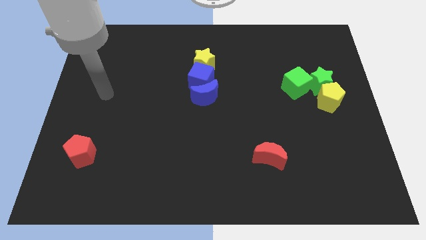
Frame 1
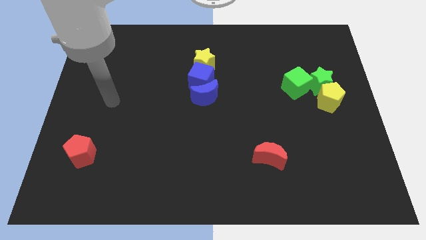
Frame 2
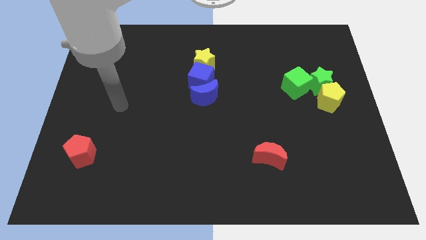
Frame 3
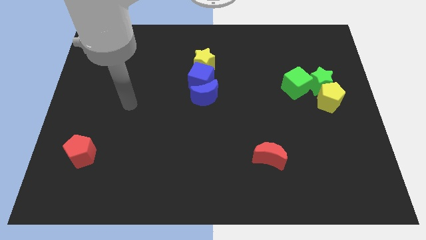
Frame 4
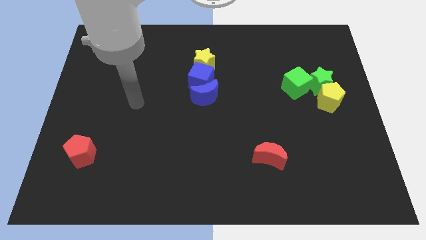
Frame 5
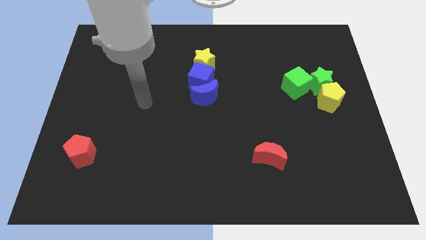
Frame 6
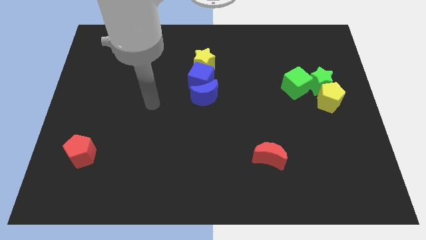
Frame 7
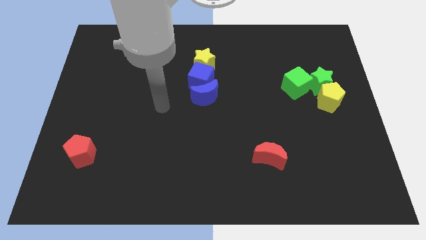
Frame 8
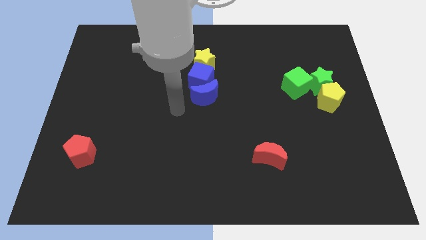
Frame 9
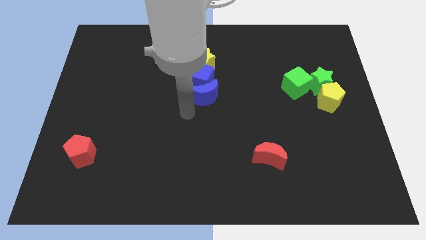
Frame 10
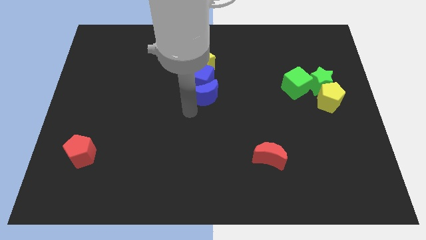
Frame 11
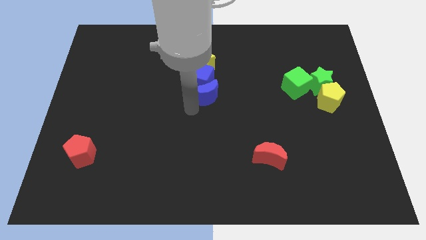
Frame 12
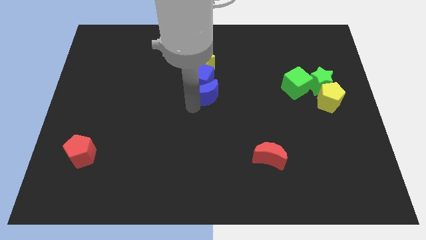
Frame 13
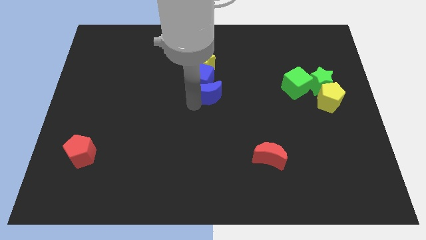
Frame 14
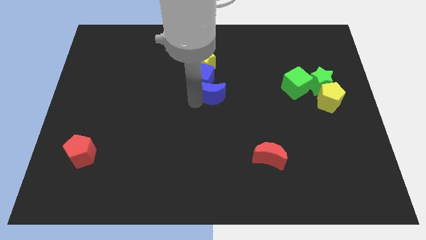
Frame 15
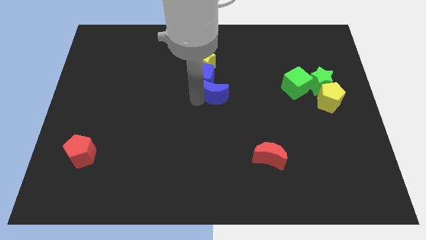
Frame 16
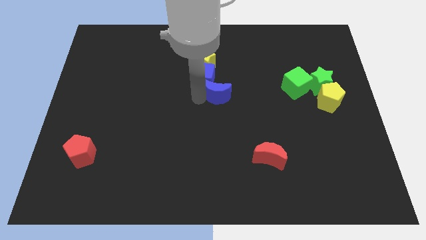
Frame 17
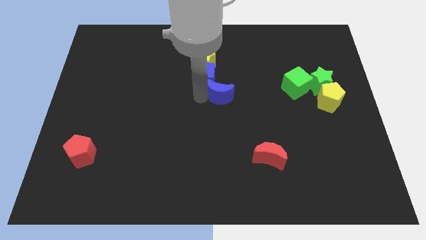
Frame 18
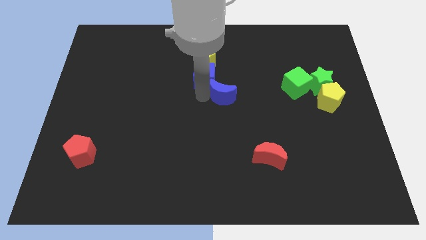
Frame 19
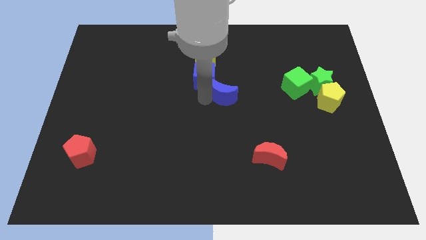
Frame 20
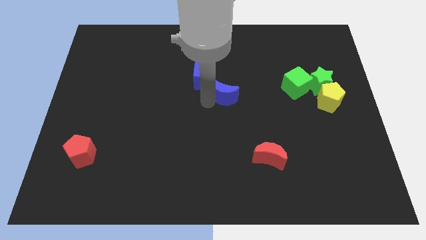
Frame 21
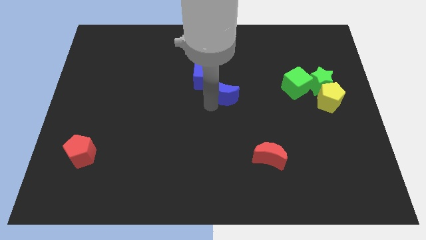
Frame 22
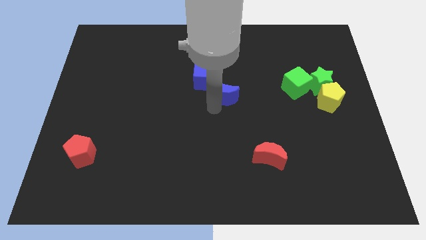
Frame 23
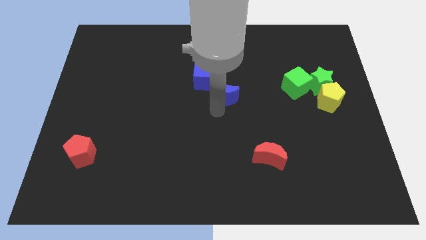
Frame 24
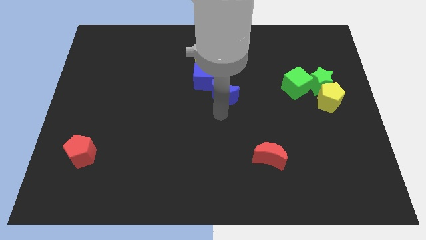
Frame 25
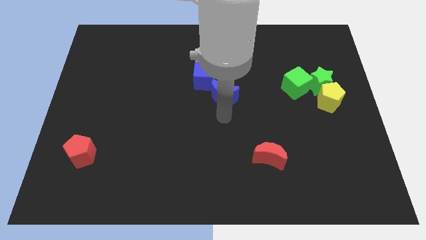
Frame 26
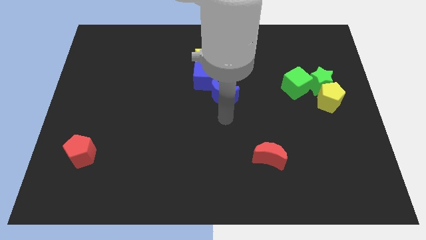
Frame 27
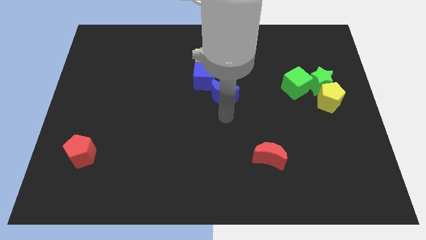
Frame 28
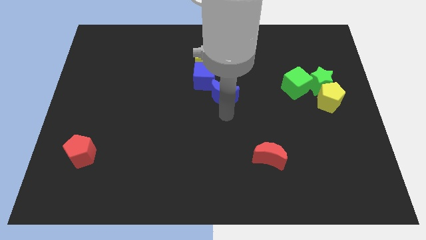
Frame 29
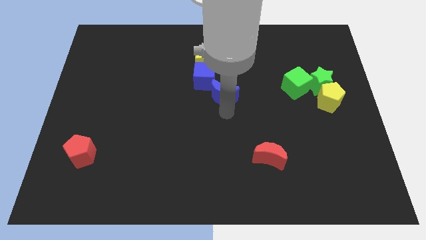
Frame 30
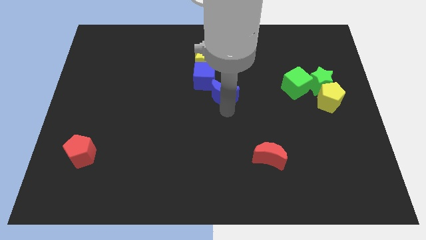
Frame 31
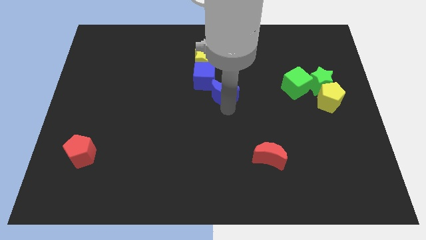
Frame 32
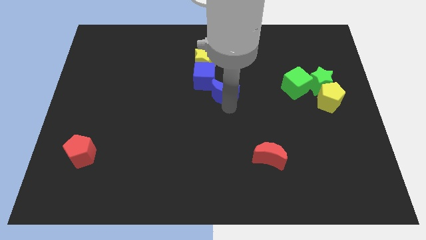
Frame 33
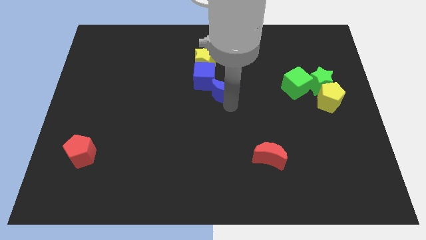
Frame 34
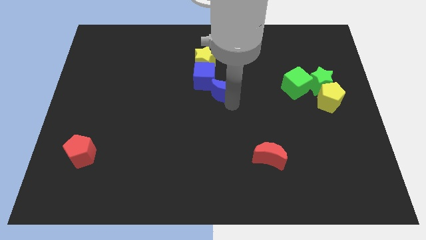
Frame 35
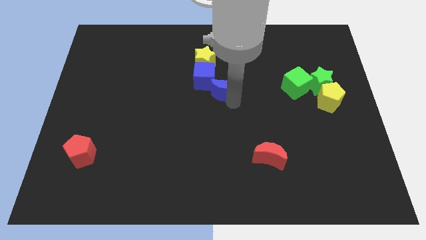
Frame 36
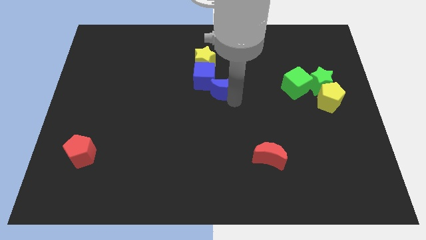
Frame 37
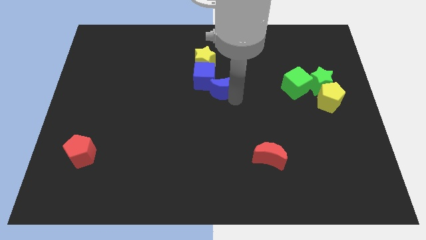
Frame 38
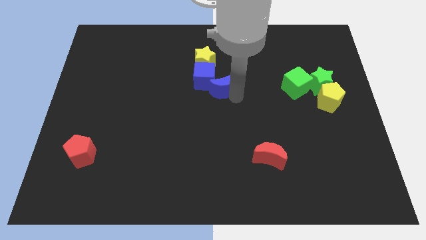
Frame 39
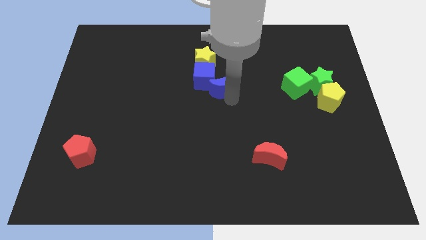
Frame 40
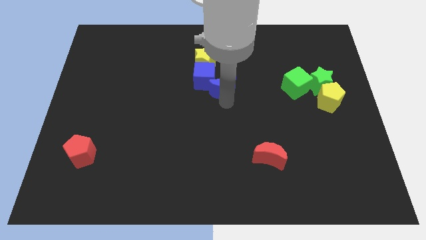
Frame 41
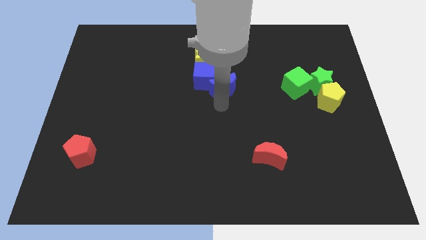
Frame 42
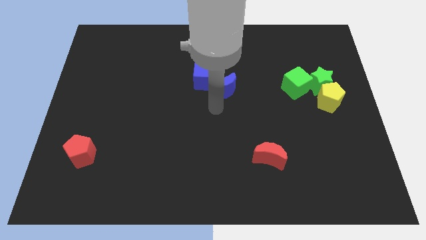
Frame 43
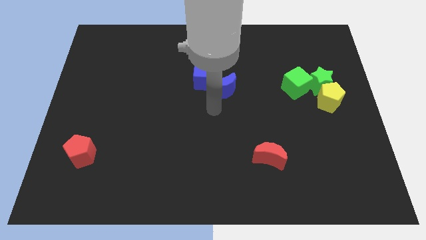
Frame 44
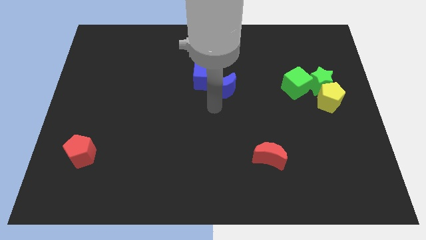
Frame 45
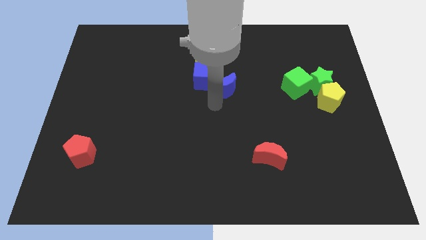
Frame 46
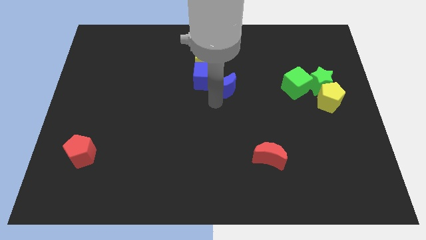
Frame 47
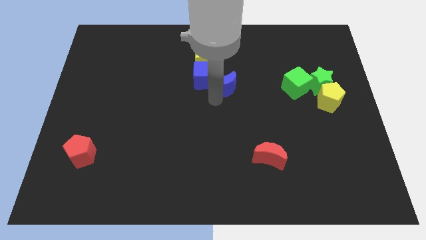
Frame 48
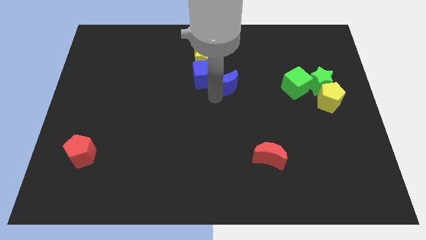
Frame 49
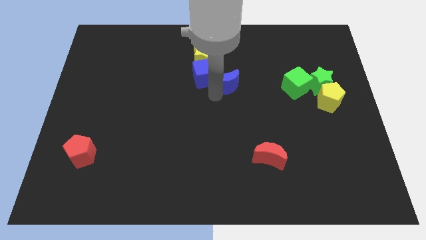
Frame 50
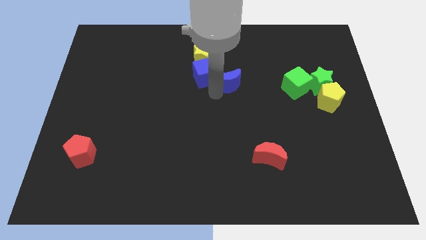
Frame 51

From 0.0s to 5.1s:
push the blue moon upwards and to the right diagonally a bit

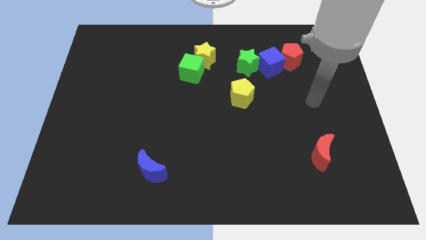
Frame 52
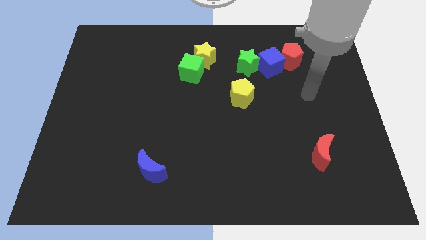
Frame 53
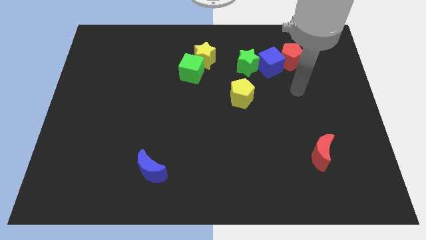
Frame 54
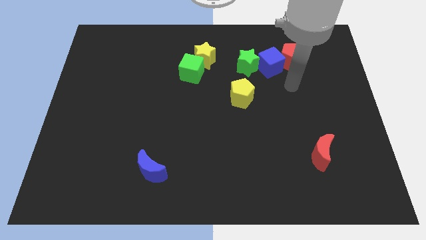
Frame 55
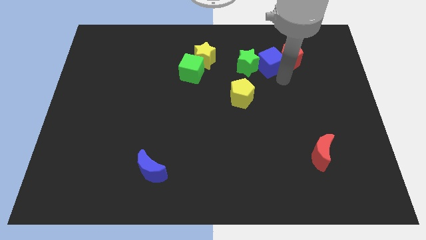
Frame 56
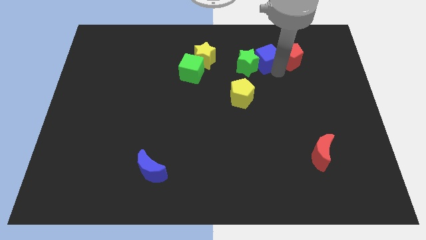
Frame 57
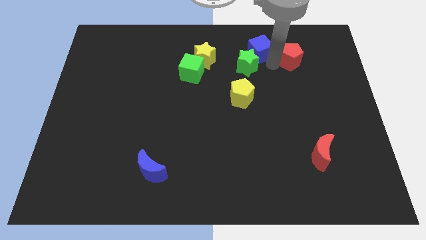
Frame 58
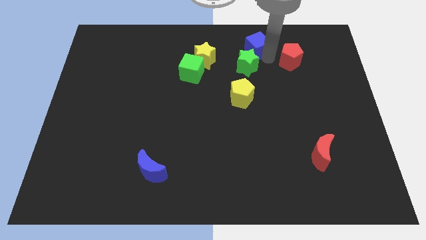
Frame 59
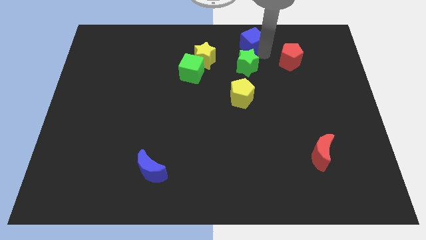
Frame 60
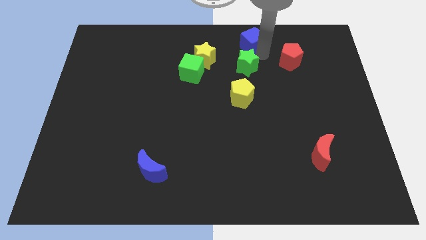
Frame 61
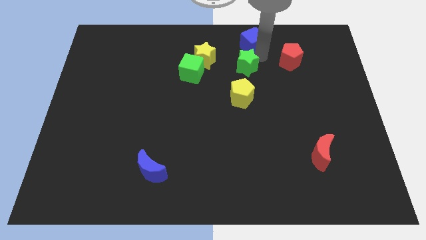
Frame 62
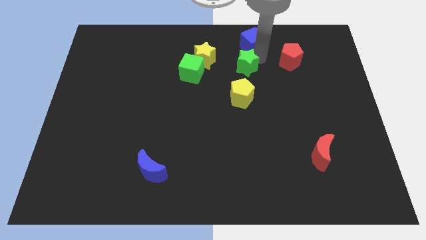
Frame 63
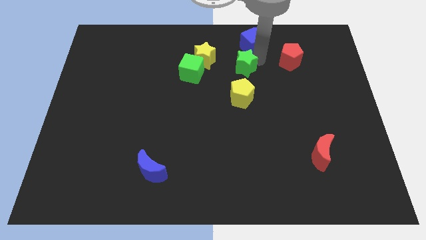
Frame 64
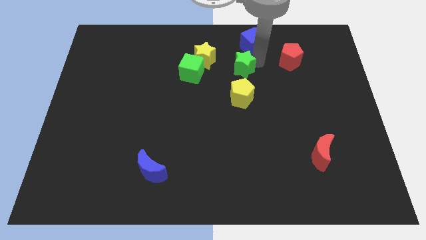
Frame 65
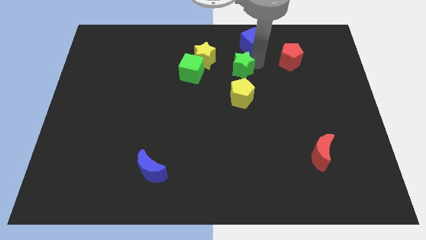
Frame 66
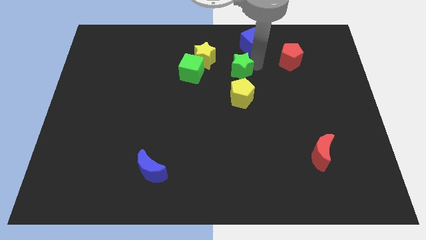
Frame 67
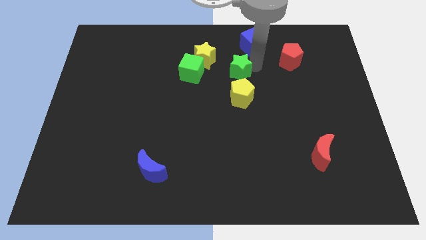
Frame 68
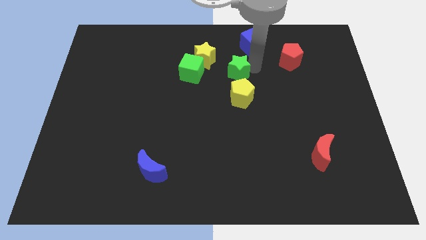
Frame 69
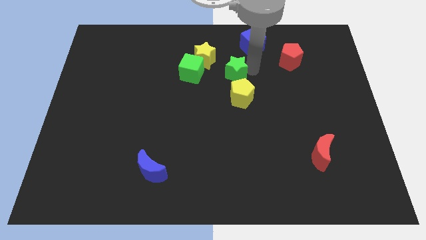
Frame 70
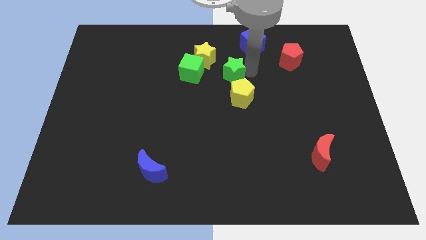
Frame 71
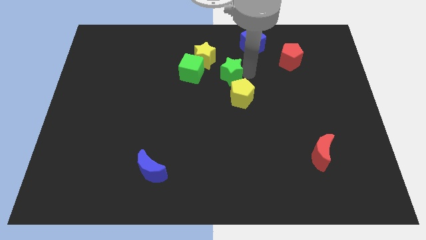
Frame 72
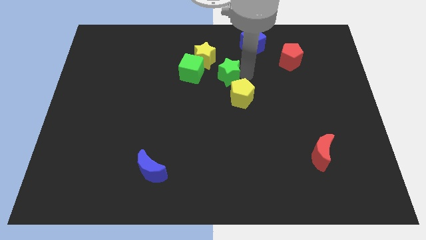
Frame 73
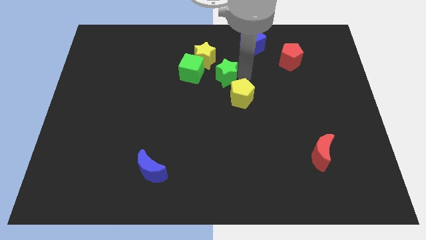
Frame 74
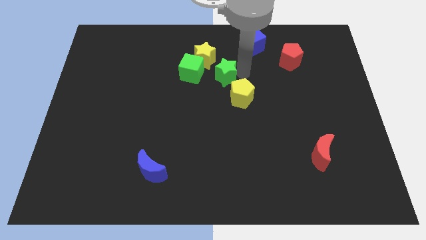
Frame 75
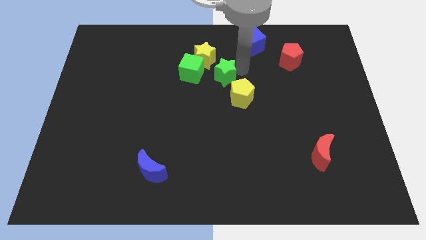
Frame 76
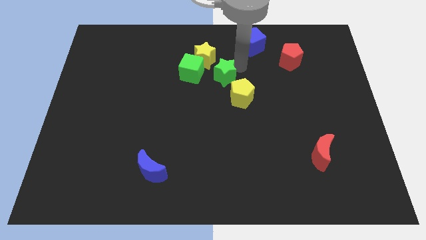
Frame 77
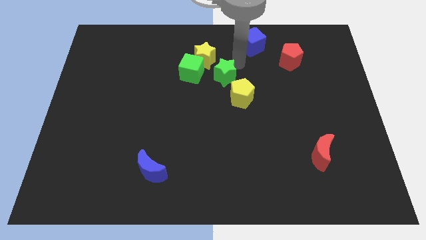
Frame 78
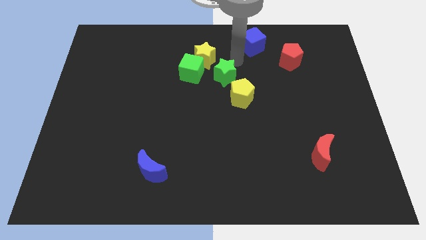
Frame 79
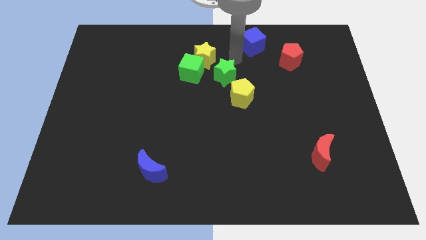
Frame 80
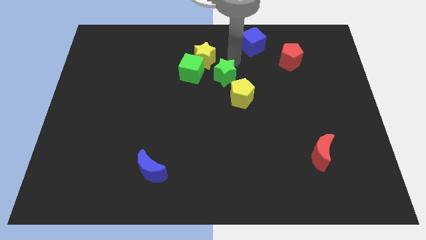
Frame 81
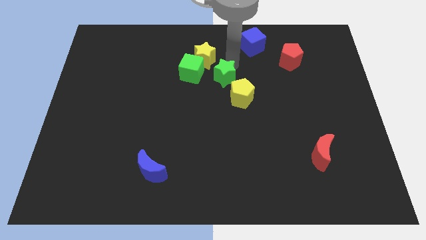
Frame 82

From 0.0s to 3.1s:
slightly push the green star diagonally down and to the left
